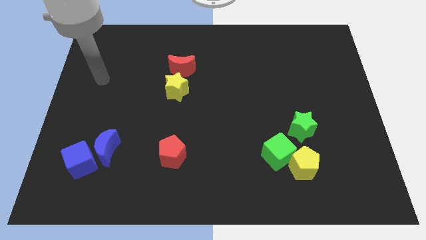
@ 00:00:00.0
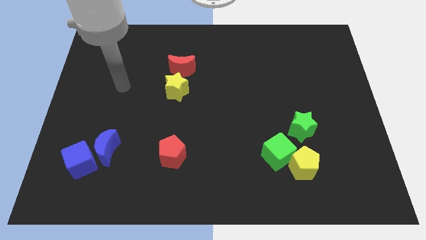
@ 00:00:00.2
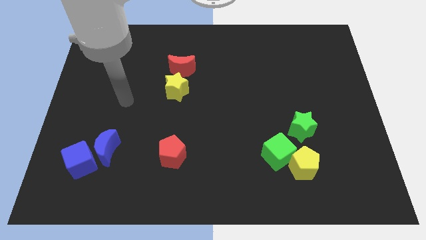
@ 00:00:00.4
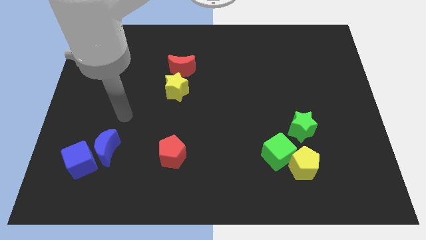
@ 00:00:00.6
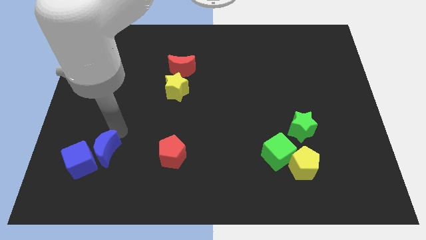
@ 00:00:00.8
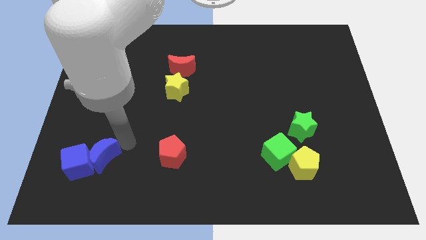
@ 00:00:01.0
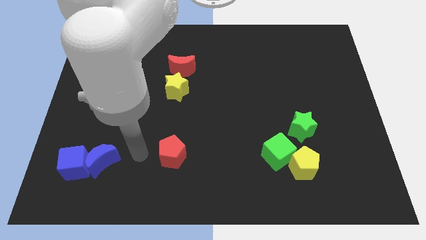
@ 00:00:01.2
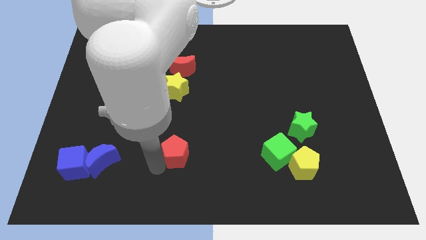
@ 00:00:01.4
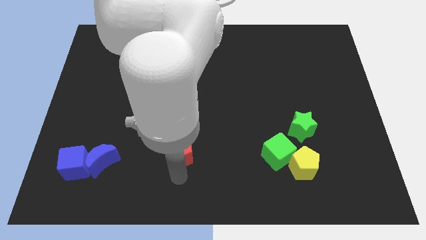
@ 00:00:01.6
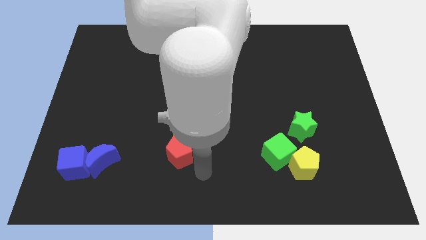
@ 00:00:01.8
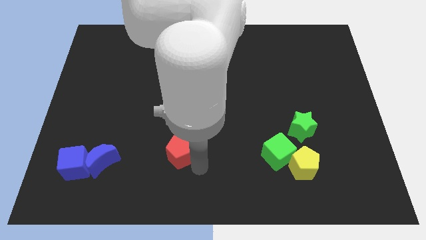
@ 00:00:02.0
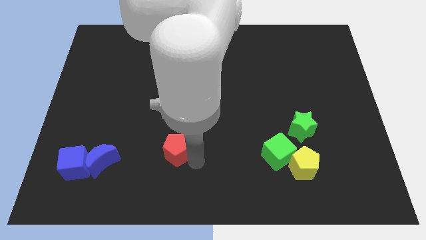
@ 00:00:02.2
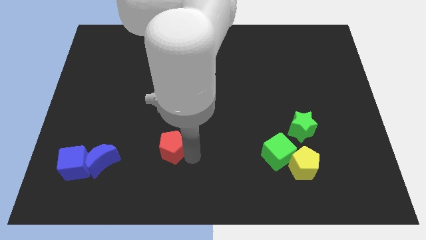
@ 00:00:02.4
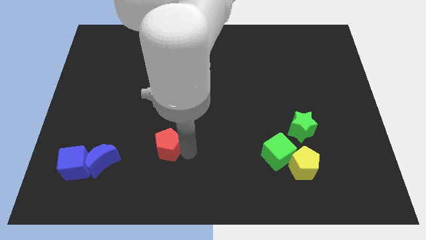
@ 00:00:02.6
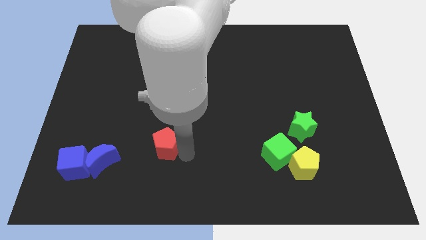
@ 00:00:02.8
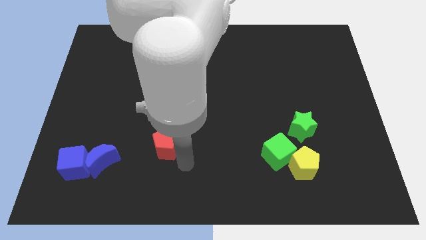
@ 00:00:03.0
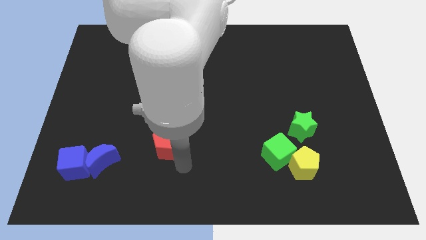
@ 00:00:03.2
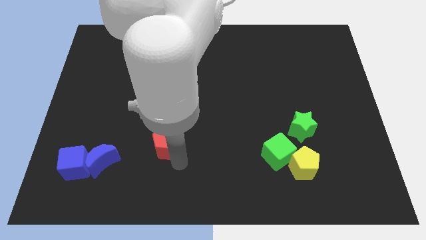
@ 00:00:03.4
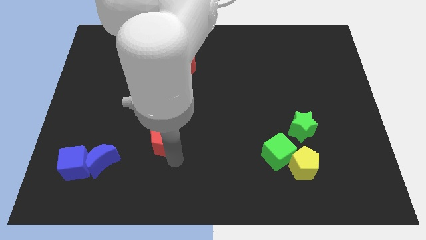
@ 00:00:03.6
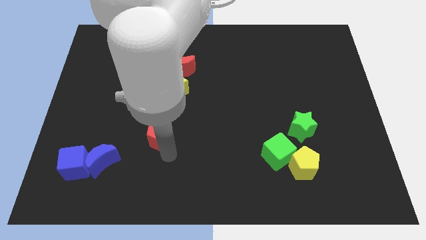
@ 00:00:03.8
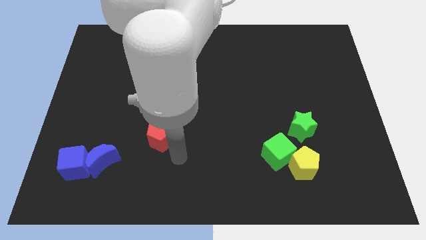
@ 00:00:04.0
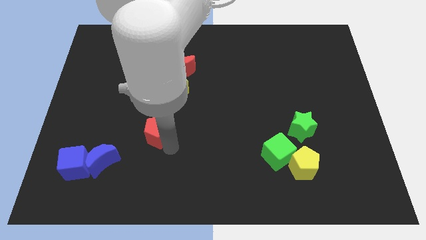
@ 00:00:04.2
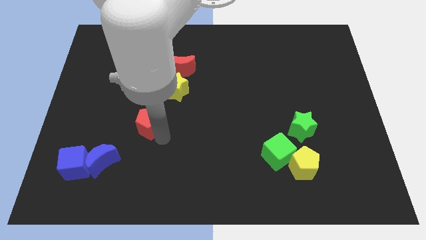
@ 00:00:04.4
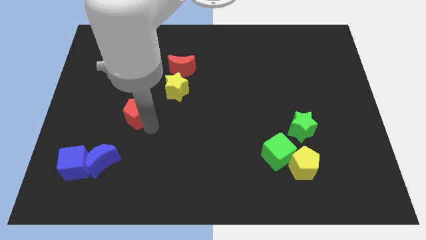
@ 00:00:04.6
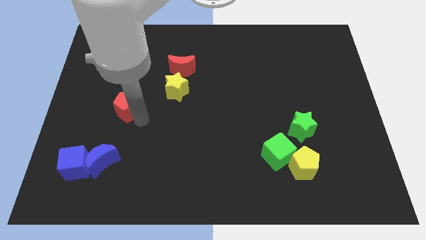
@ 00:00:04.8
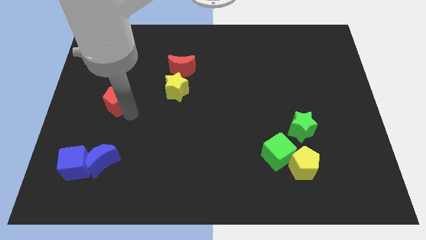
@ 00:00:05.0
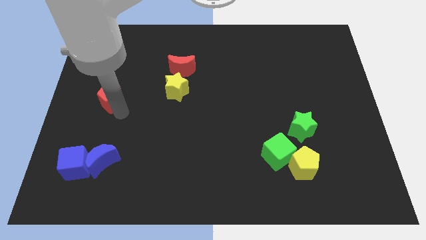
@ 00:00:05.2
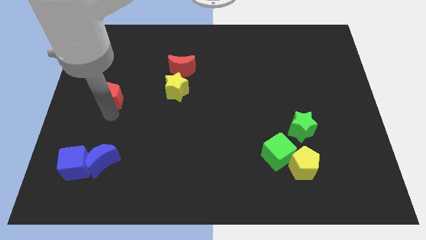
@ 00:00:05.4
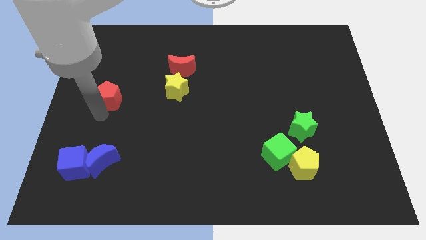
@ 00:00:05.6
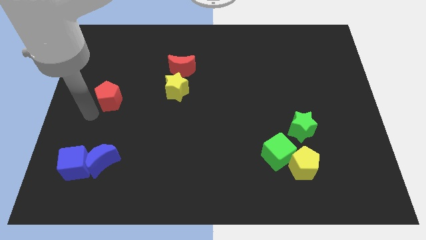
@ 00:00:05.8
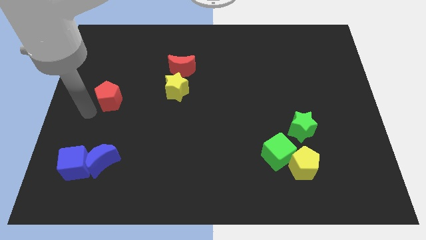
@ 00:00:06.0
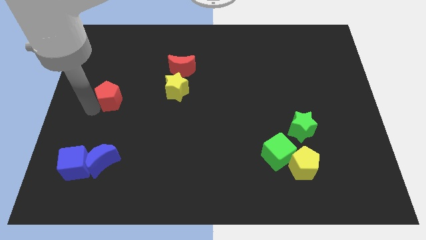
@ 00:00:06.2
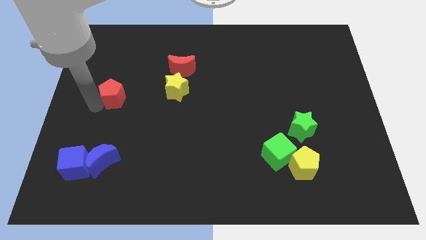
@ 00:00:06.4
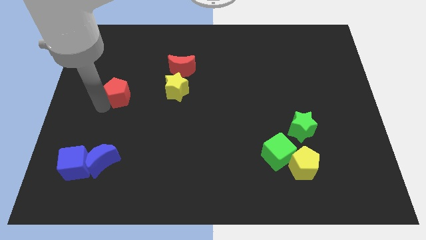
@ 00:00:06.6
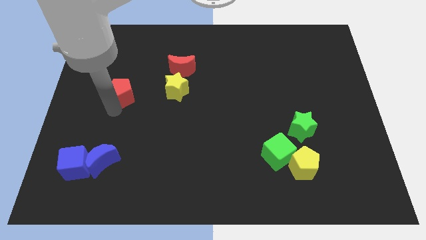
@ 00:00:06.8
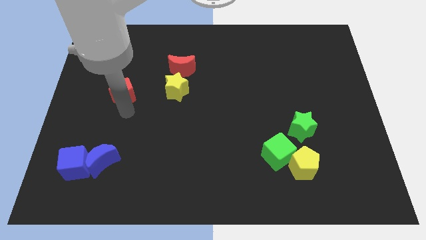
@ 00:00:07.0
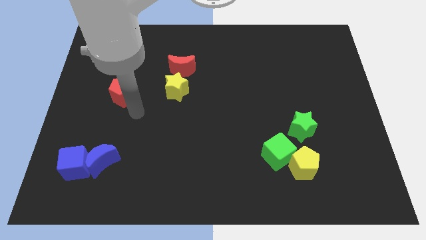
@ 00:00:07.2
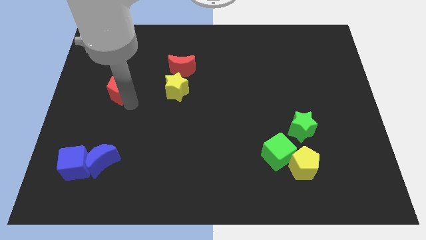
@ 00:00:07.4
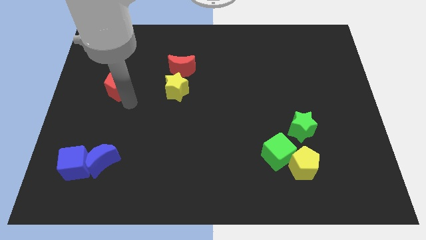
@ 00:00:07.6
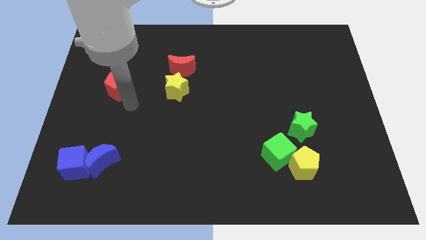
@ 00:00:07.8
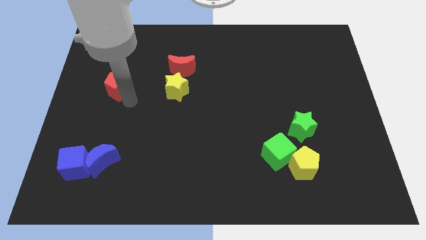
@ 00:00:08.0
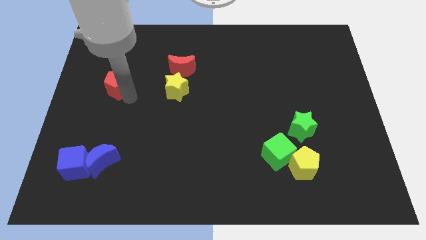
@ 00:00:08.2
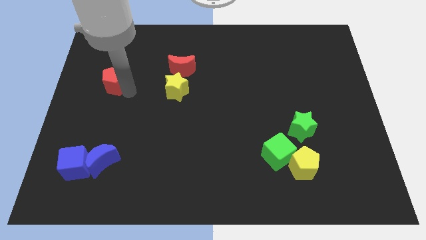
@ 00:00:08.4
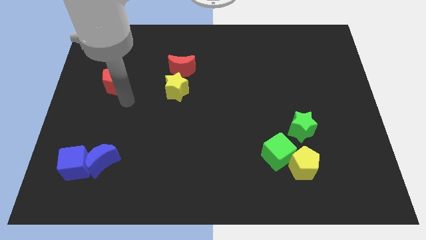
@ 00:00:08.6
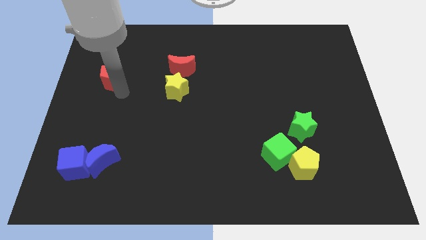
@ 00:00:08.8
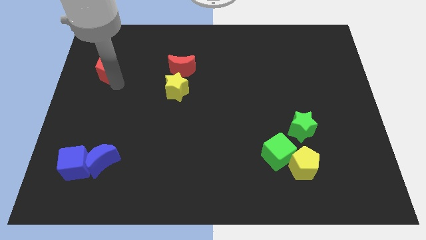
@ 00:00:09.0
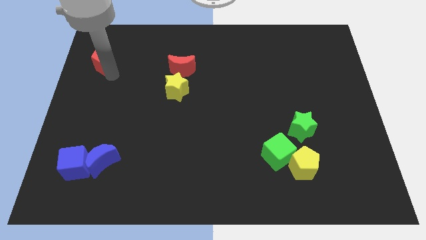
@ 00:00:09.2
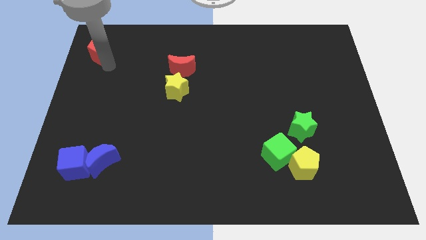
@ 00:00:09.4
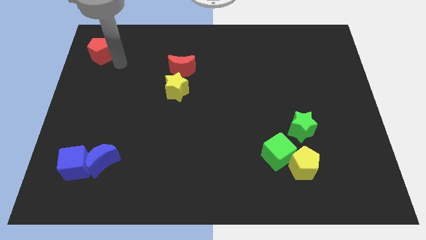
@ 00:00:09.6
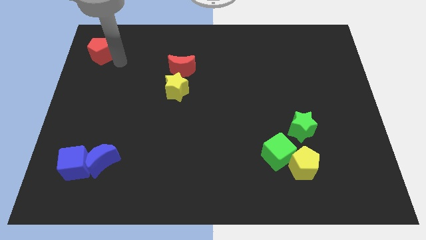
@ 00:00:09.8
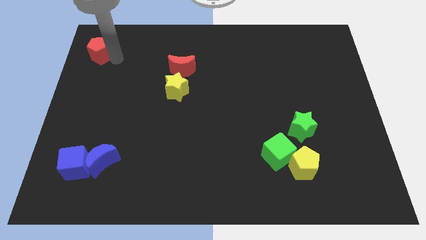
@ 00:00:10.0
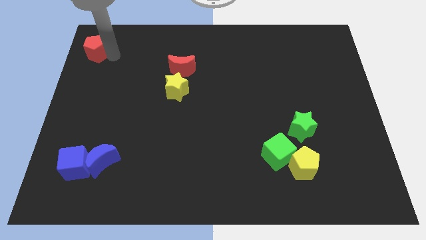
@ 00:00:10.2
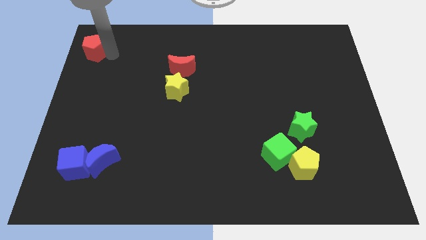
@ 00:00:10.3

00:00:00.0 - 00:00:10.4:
slide the red pentagon to the top left

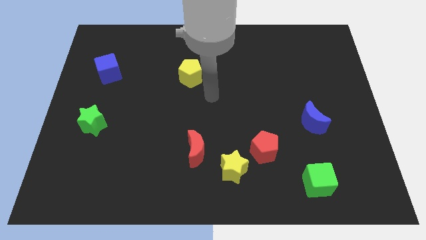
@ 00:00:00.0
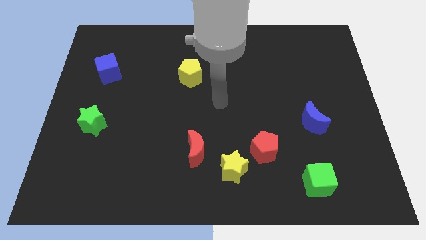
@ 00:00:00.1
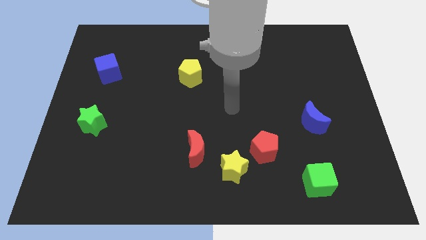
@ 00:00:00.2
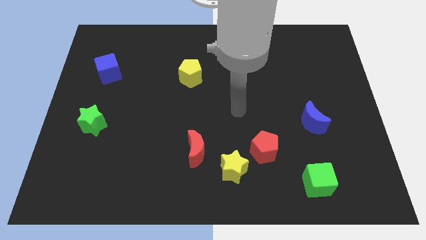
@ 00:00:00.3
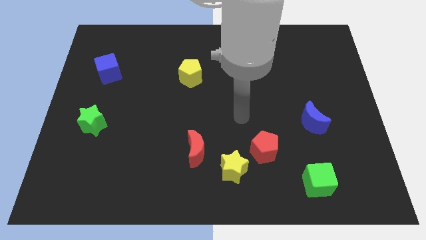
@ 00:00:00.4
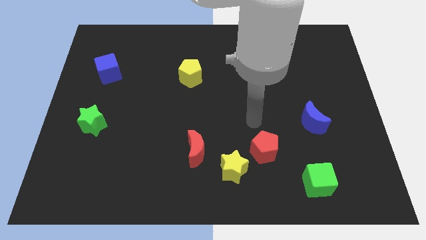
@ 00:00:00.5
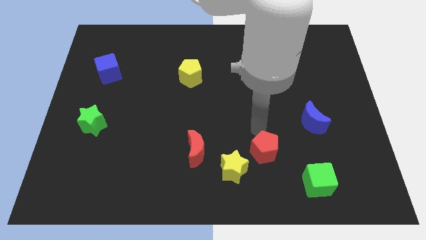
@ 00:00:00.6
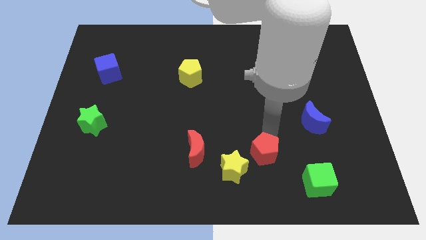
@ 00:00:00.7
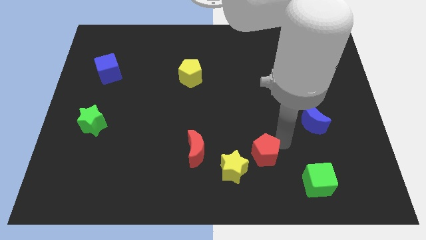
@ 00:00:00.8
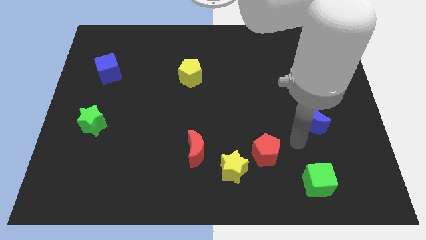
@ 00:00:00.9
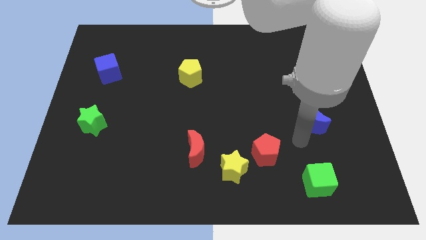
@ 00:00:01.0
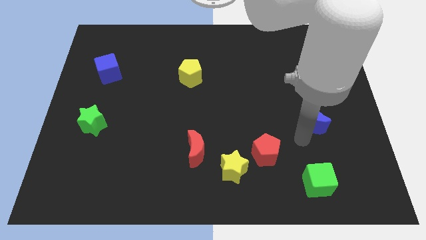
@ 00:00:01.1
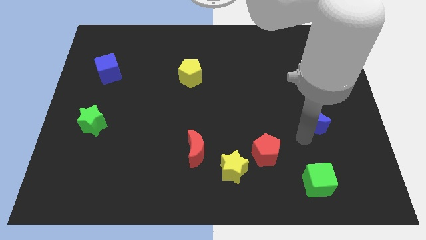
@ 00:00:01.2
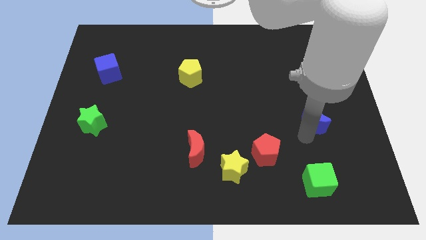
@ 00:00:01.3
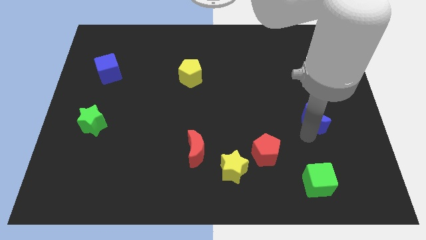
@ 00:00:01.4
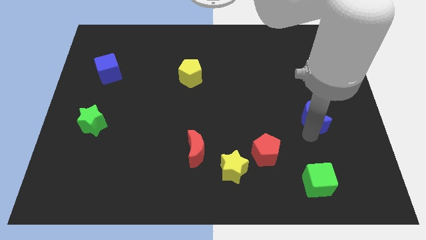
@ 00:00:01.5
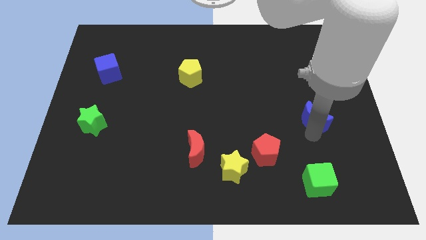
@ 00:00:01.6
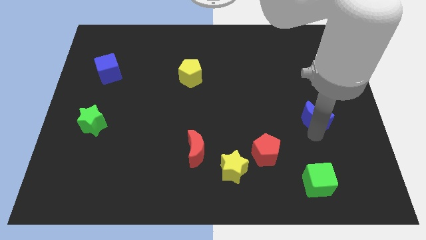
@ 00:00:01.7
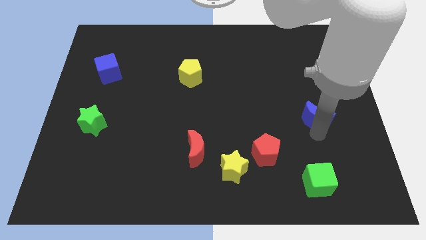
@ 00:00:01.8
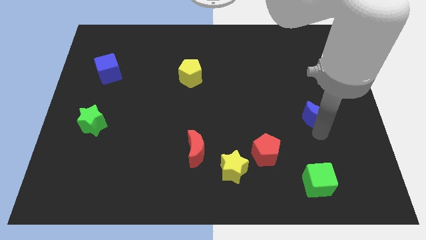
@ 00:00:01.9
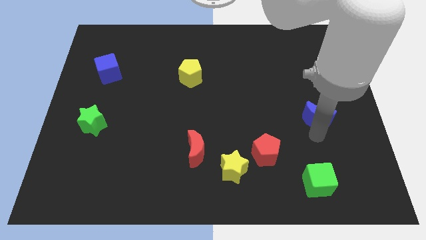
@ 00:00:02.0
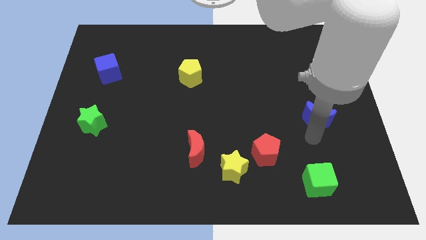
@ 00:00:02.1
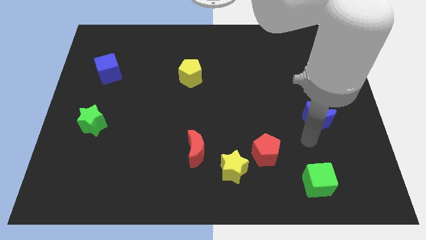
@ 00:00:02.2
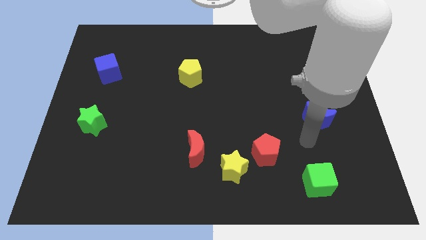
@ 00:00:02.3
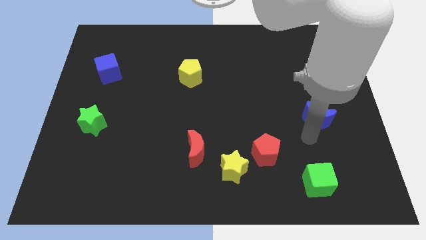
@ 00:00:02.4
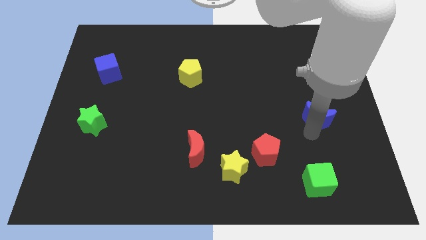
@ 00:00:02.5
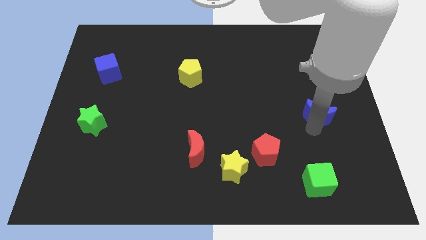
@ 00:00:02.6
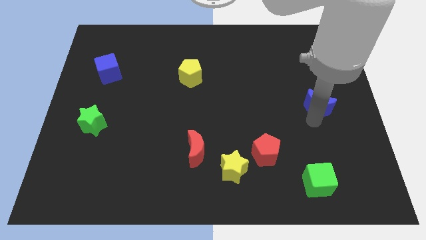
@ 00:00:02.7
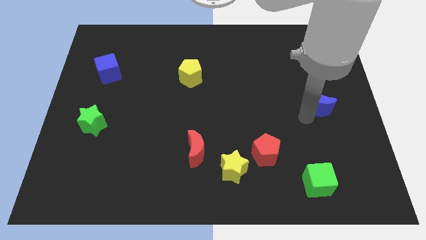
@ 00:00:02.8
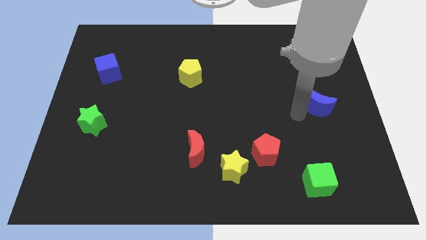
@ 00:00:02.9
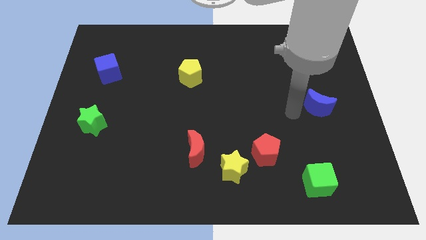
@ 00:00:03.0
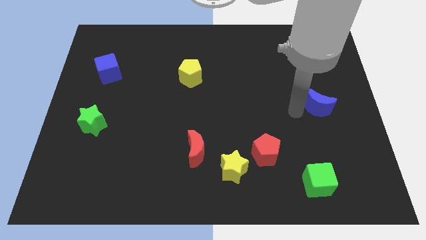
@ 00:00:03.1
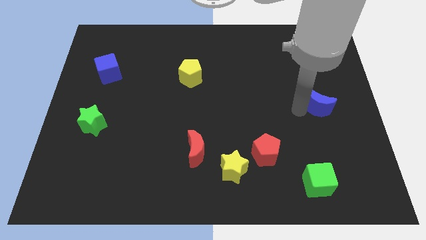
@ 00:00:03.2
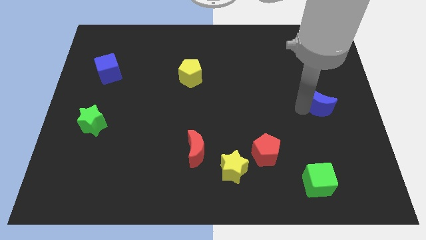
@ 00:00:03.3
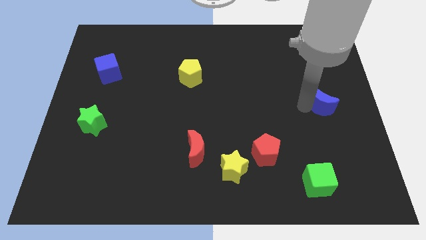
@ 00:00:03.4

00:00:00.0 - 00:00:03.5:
slide the blue moon to the right side
